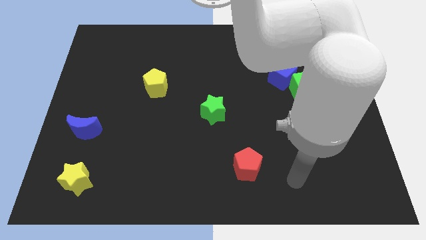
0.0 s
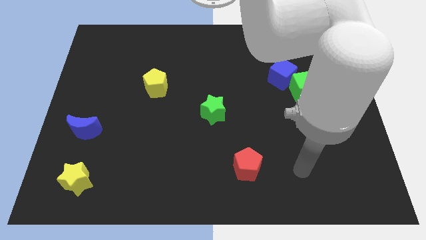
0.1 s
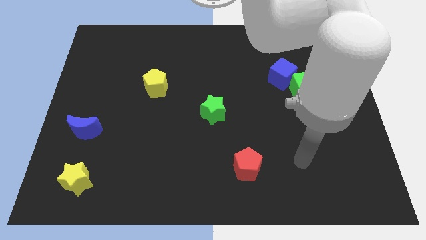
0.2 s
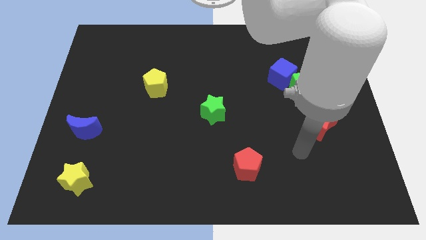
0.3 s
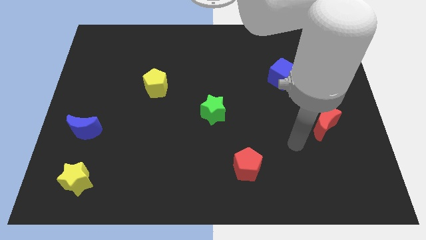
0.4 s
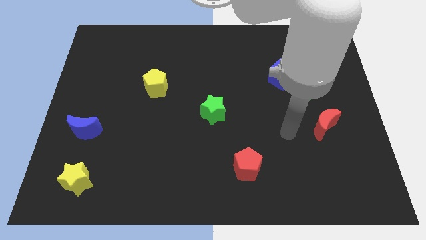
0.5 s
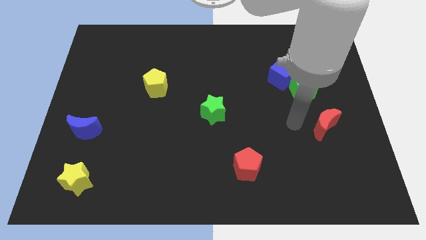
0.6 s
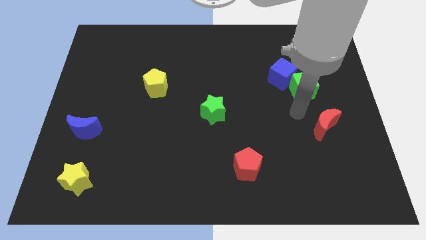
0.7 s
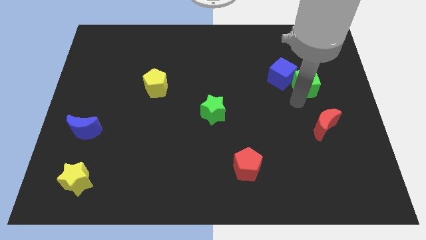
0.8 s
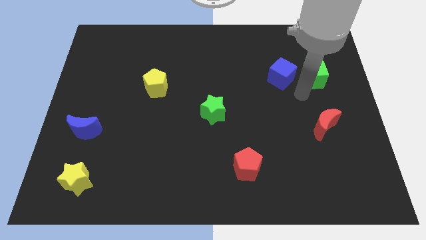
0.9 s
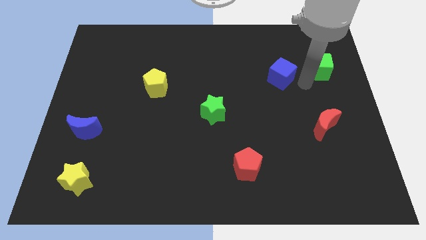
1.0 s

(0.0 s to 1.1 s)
move the blue cube away from the green cube

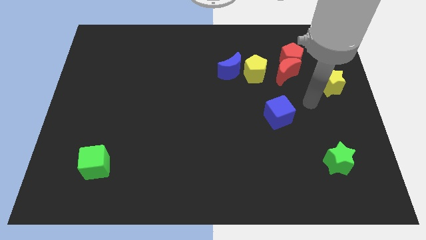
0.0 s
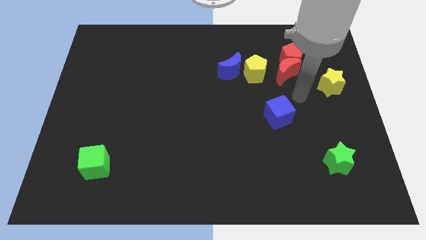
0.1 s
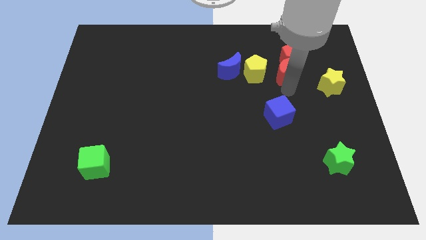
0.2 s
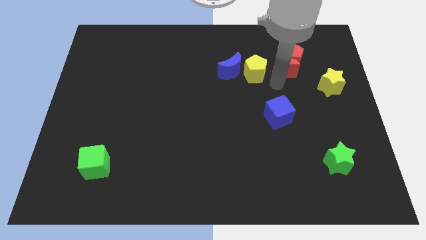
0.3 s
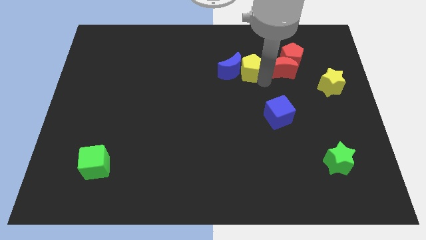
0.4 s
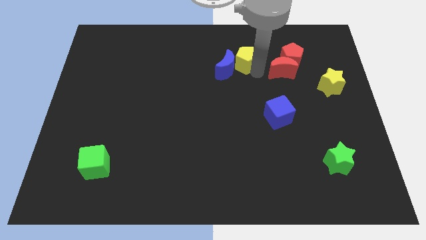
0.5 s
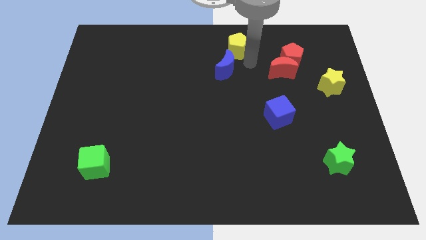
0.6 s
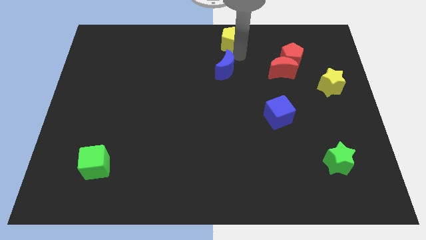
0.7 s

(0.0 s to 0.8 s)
separate the blue moon from the yellow pentagon

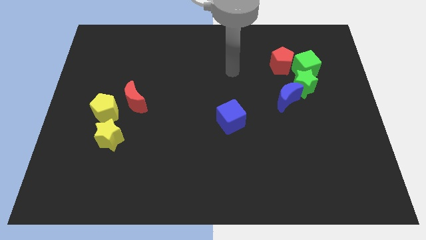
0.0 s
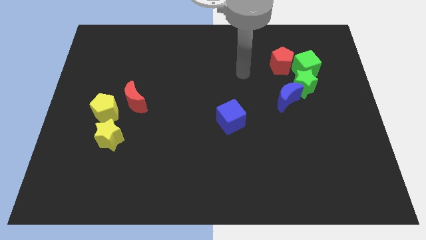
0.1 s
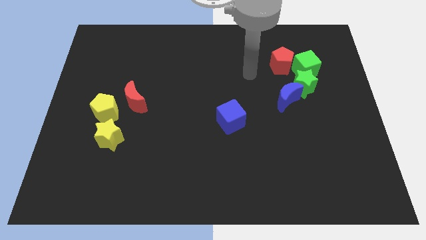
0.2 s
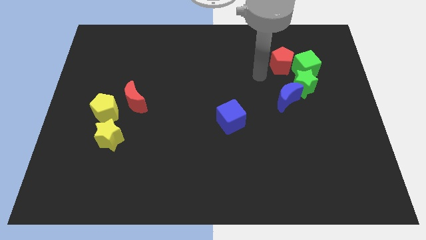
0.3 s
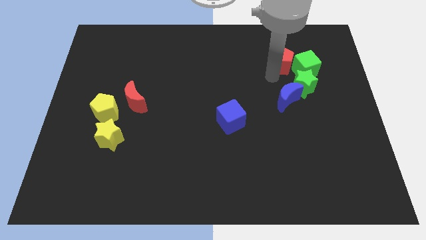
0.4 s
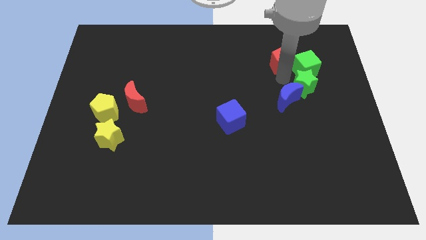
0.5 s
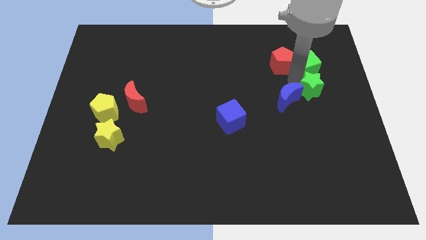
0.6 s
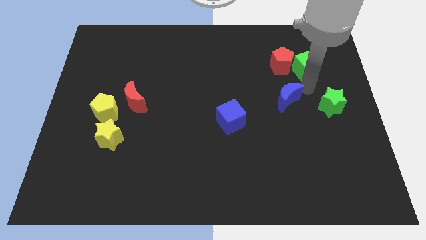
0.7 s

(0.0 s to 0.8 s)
pull the blue moon apart from the green star

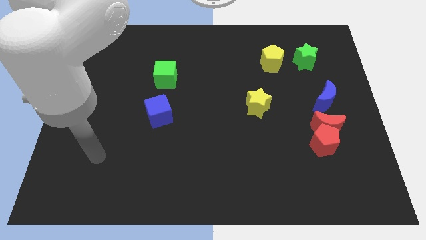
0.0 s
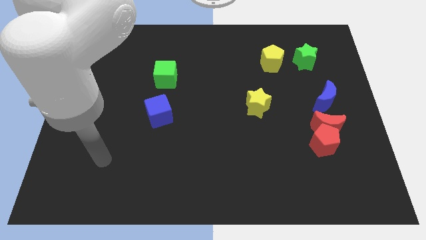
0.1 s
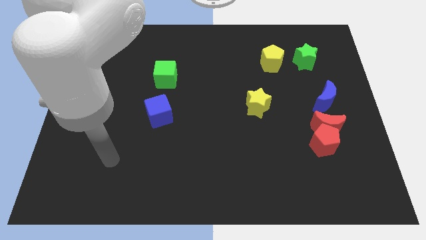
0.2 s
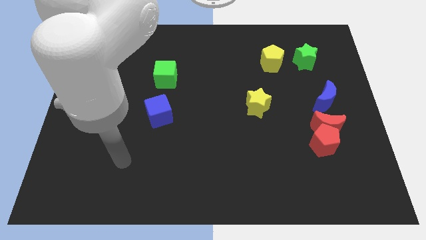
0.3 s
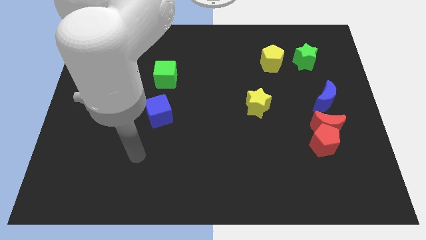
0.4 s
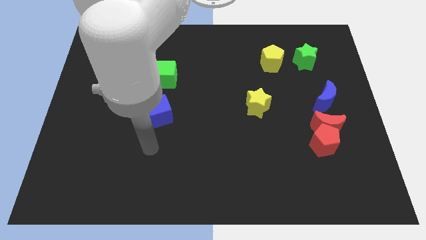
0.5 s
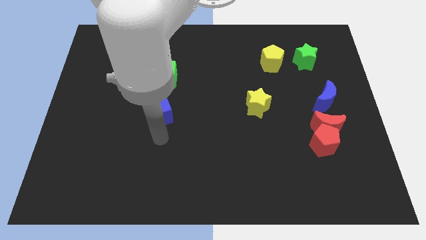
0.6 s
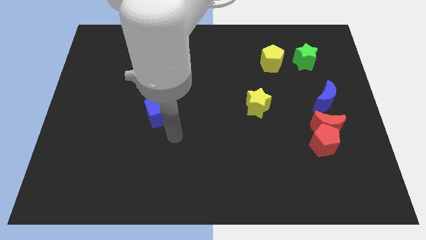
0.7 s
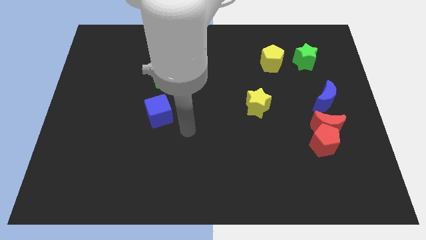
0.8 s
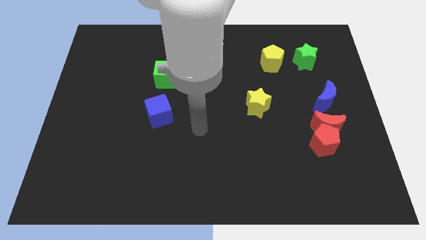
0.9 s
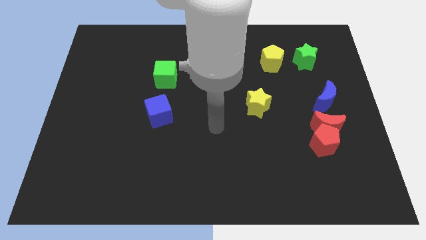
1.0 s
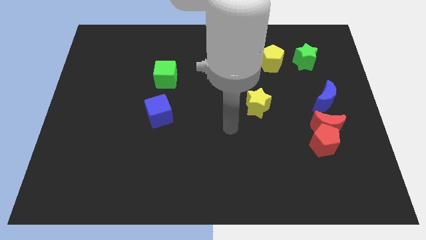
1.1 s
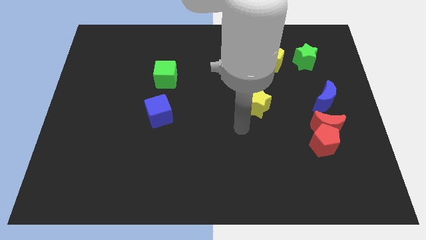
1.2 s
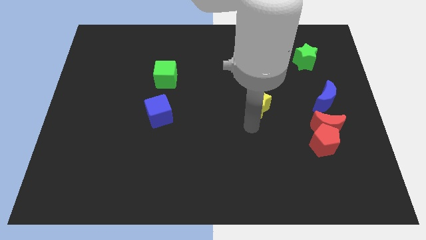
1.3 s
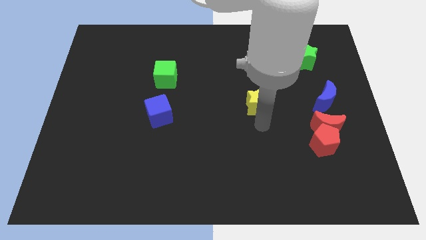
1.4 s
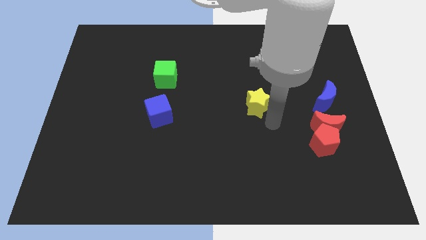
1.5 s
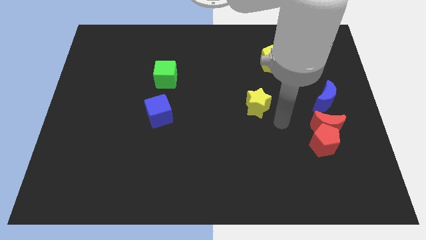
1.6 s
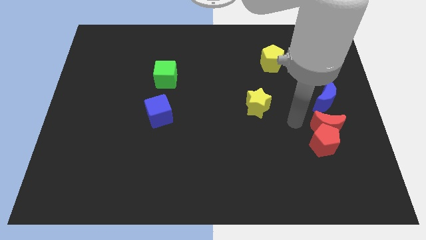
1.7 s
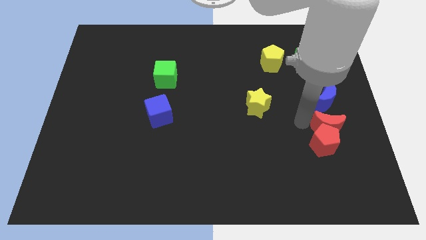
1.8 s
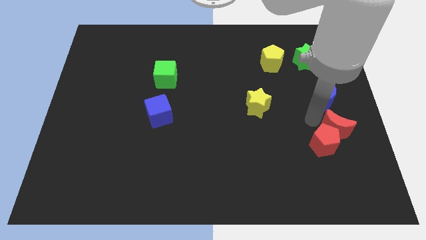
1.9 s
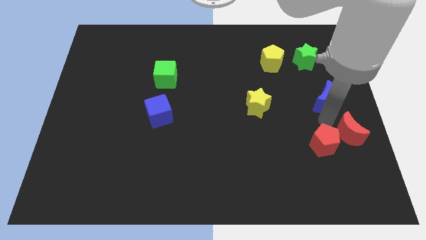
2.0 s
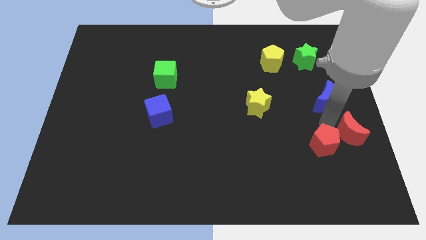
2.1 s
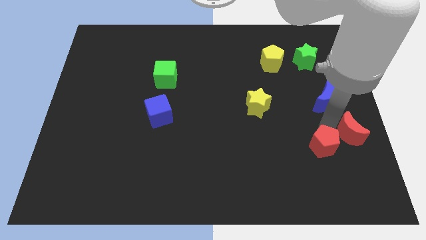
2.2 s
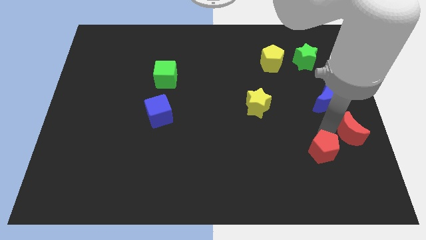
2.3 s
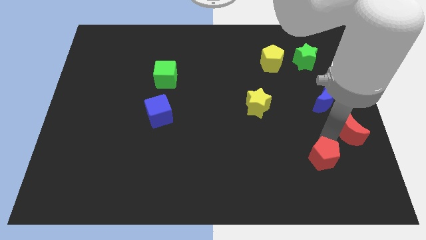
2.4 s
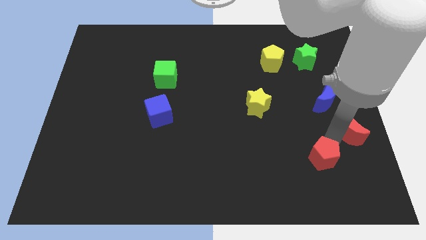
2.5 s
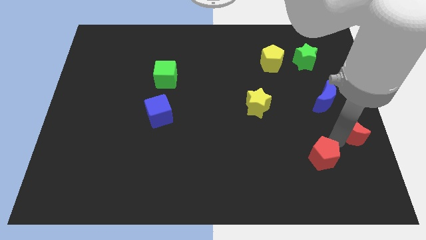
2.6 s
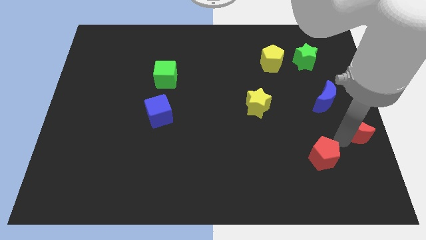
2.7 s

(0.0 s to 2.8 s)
move the red pentagon away from the red moon

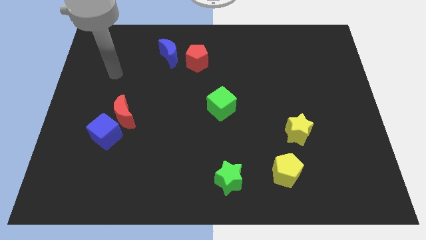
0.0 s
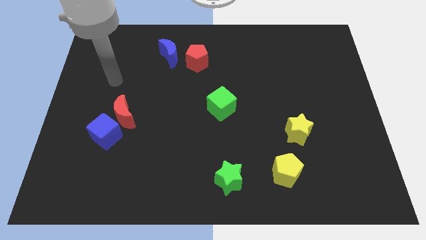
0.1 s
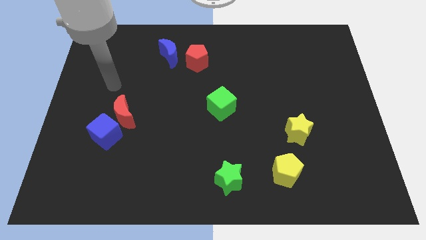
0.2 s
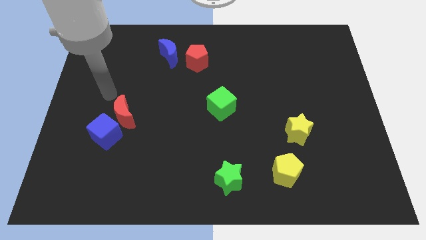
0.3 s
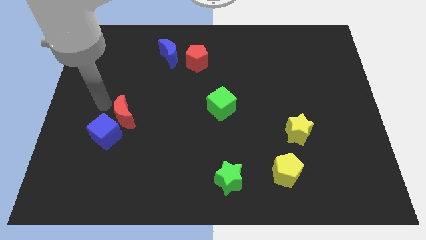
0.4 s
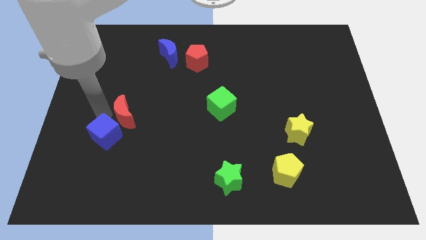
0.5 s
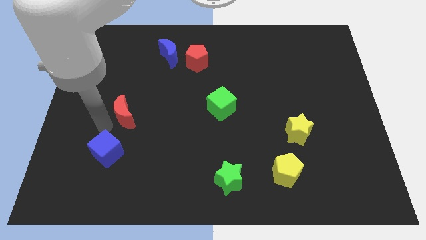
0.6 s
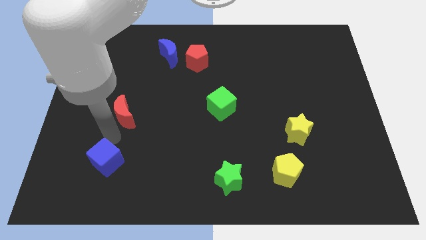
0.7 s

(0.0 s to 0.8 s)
separate the red moon from the blue cube

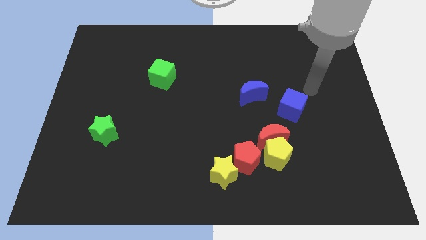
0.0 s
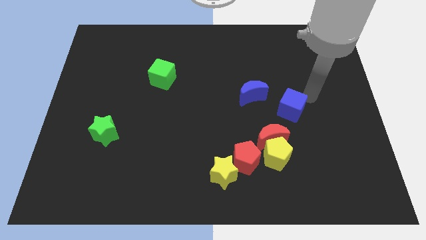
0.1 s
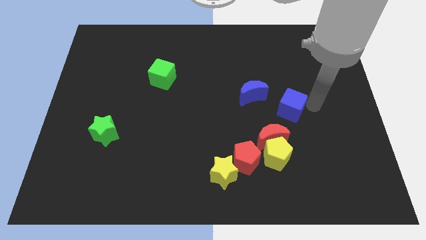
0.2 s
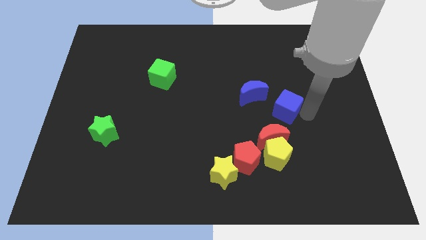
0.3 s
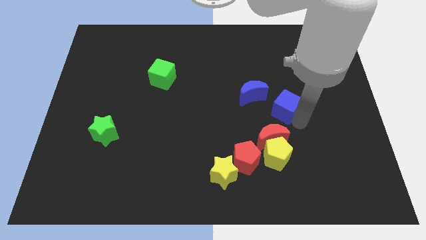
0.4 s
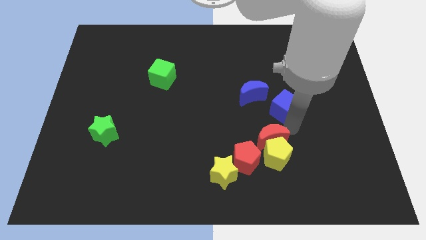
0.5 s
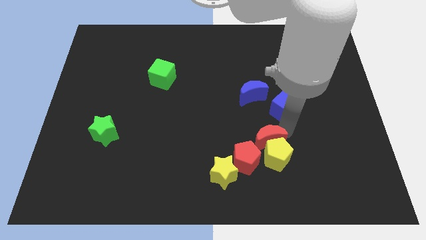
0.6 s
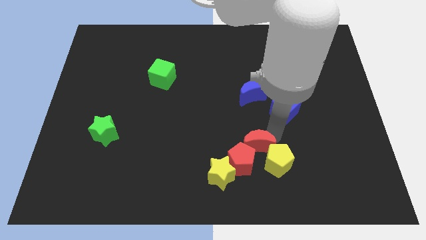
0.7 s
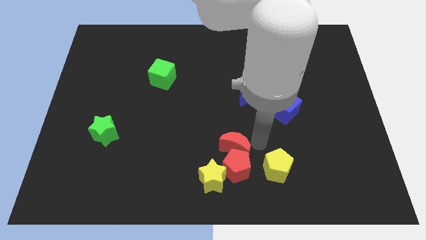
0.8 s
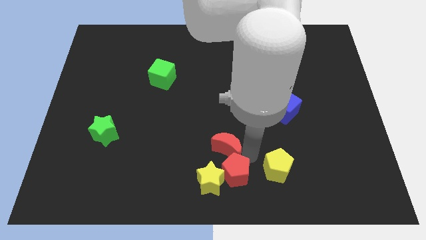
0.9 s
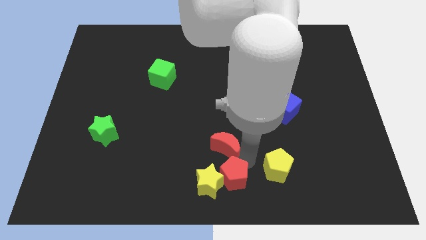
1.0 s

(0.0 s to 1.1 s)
move the yellow pentagon away from the red moon and red pentagon

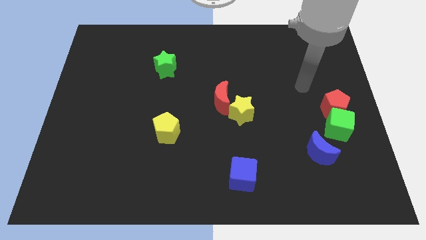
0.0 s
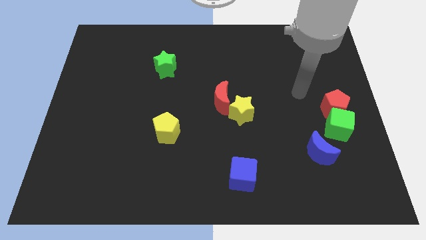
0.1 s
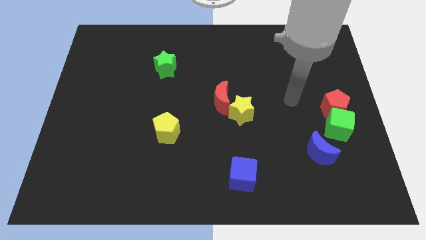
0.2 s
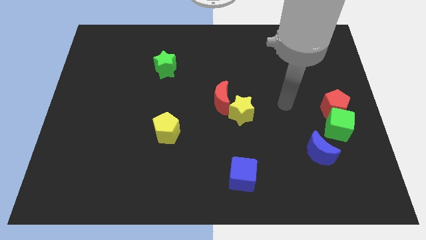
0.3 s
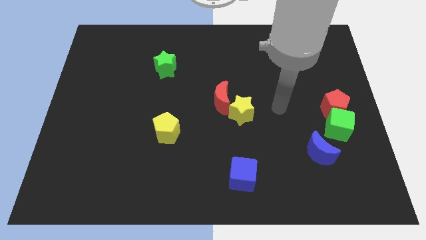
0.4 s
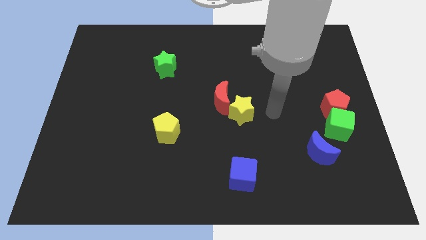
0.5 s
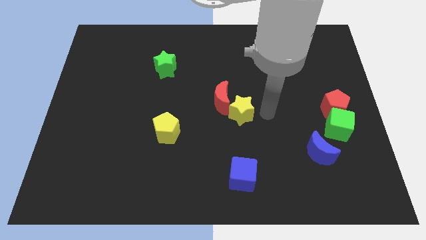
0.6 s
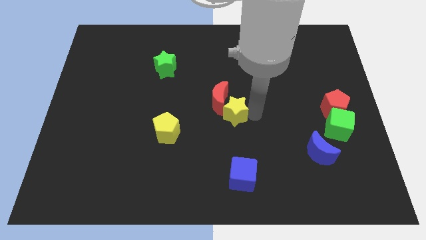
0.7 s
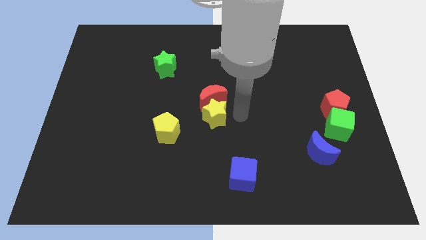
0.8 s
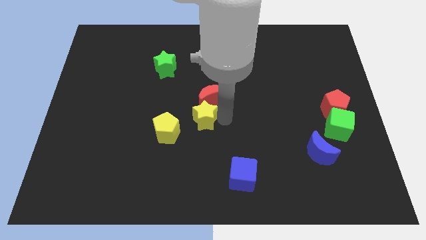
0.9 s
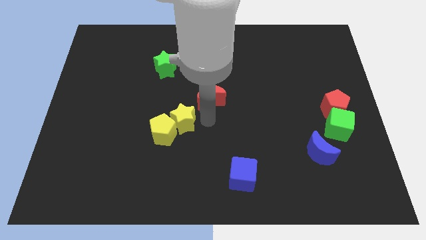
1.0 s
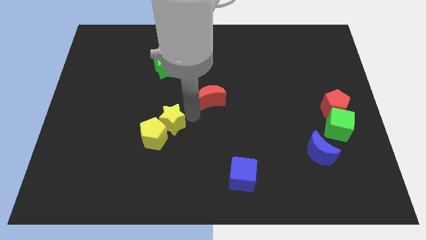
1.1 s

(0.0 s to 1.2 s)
move the red moon away from the yellow star

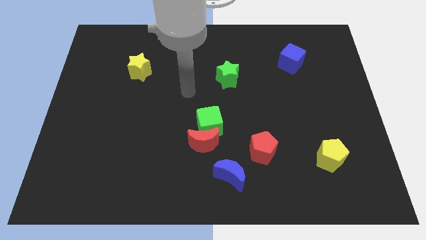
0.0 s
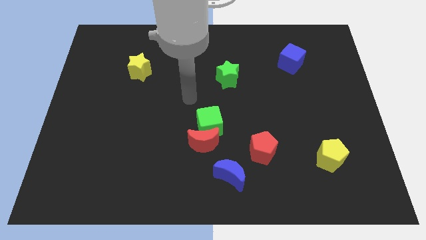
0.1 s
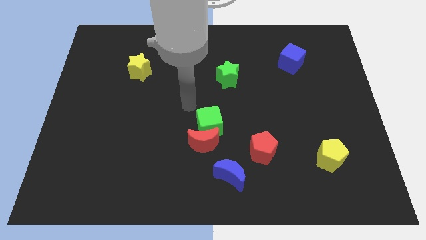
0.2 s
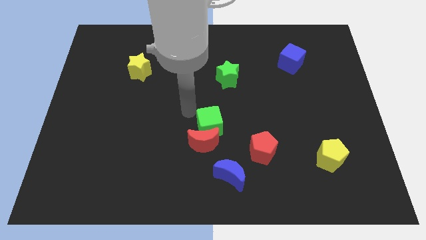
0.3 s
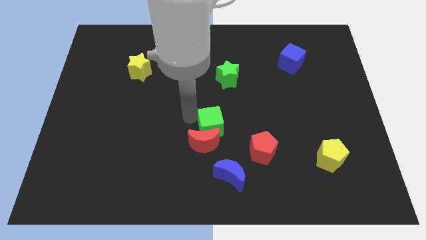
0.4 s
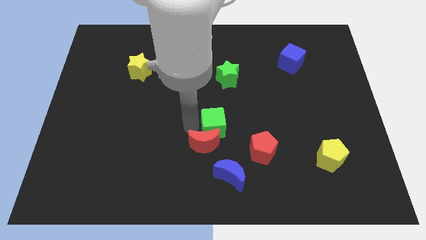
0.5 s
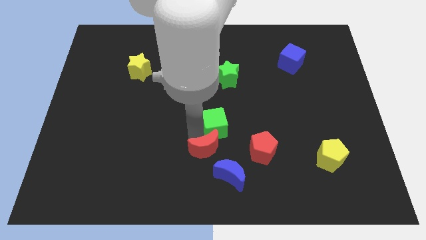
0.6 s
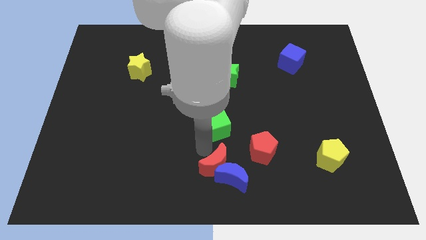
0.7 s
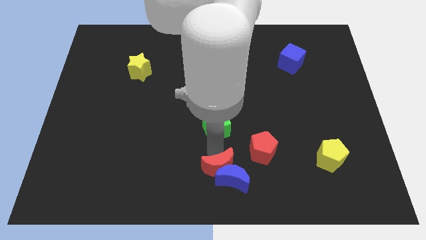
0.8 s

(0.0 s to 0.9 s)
pull the green cube apart from the red moon
